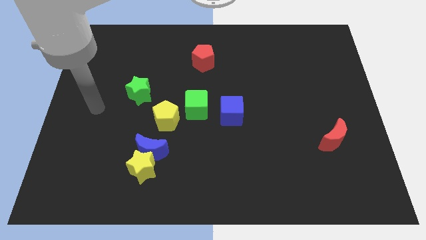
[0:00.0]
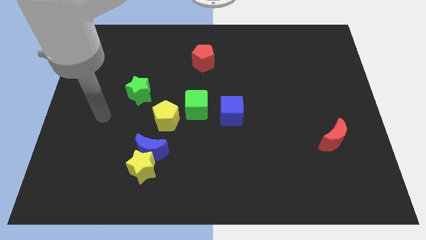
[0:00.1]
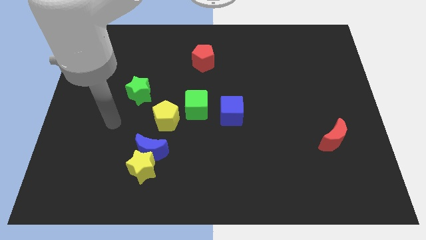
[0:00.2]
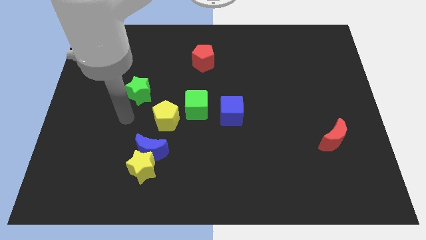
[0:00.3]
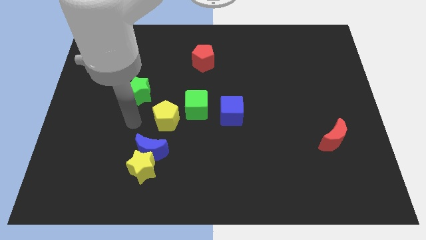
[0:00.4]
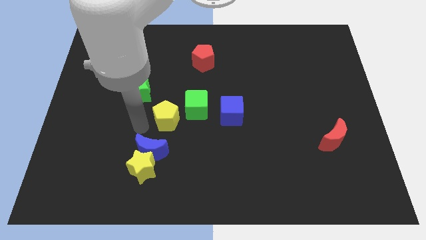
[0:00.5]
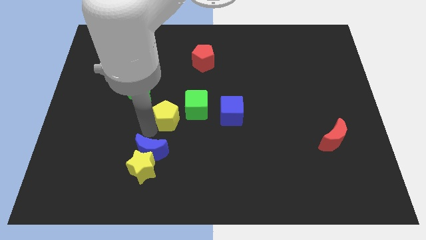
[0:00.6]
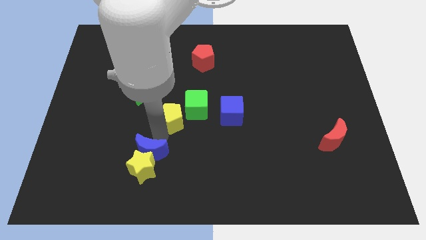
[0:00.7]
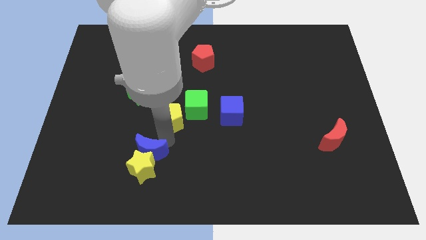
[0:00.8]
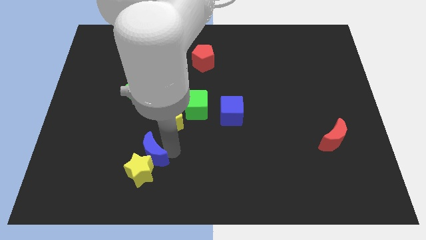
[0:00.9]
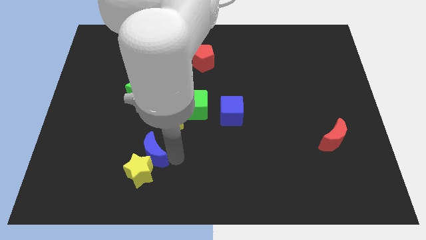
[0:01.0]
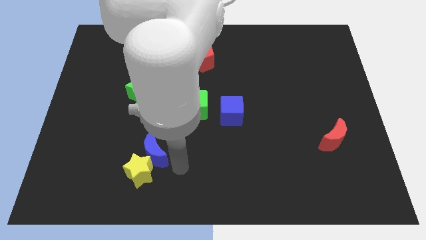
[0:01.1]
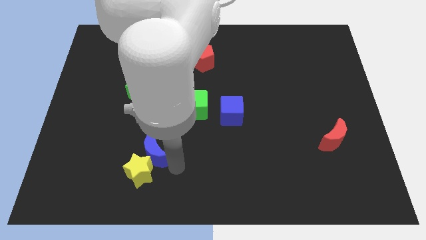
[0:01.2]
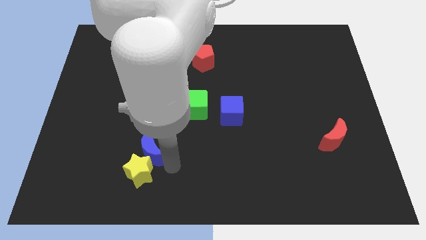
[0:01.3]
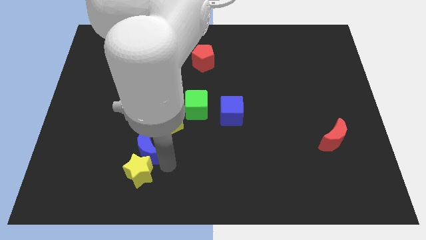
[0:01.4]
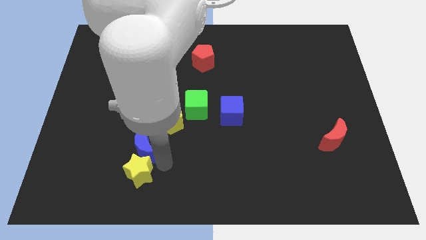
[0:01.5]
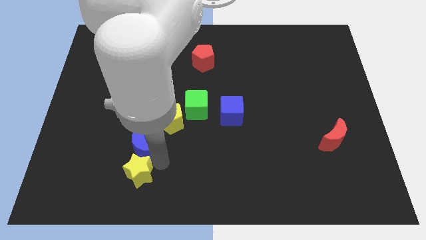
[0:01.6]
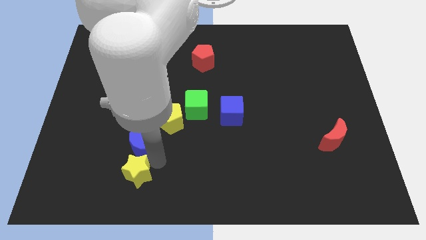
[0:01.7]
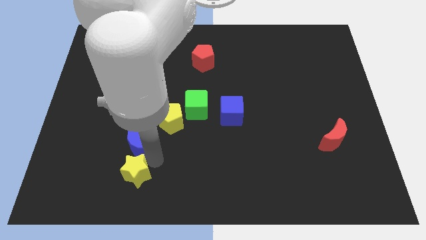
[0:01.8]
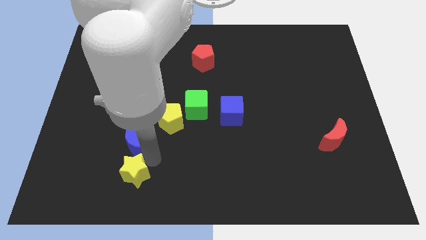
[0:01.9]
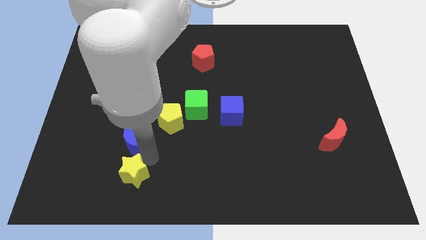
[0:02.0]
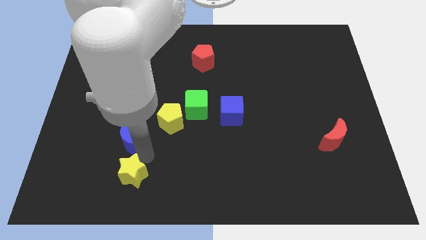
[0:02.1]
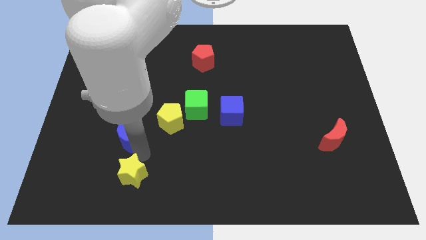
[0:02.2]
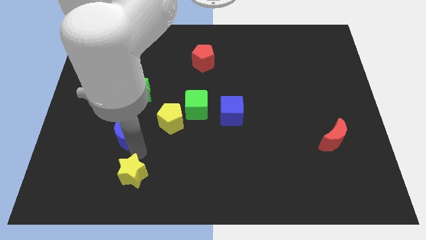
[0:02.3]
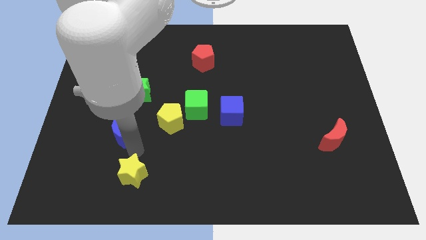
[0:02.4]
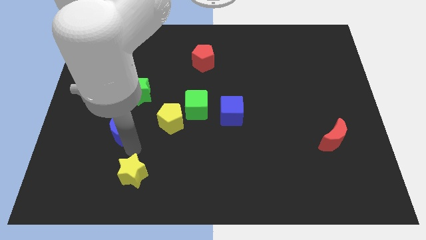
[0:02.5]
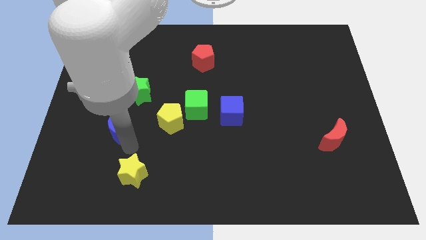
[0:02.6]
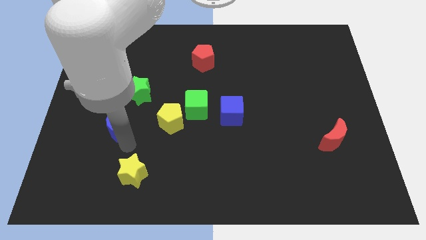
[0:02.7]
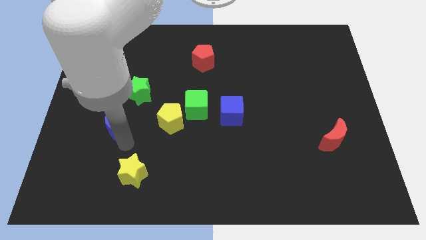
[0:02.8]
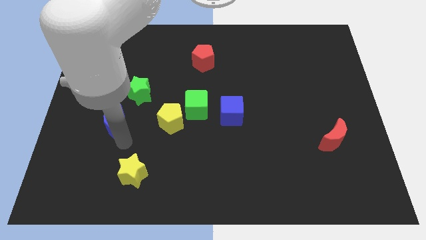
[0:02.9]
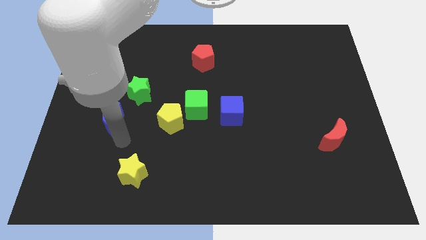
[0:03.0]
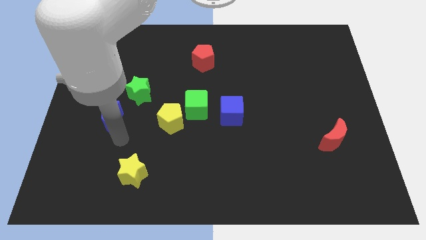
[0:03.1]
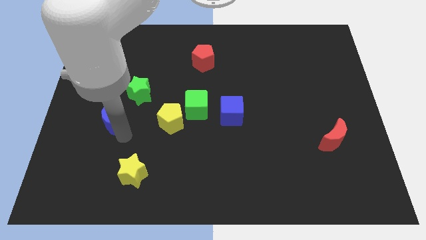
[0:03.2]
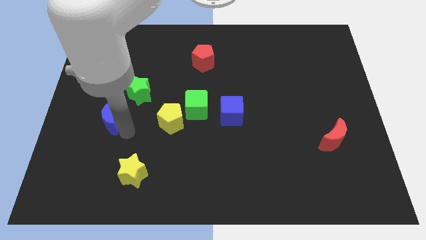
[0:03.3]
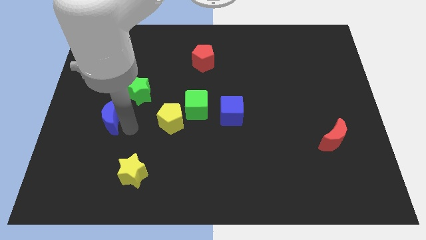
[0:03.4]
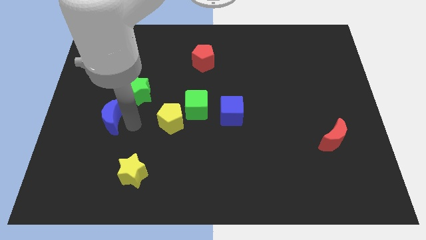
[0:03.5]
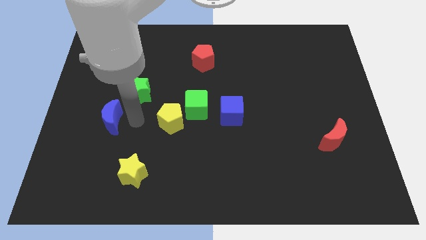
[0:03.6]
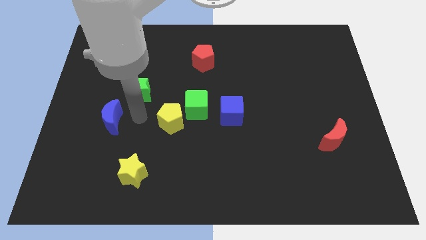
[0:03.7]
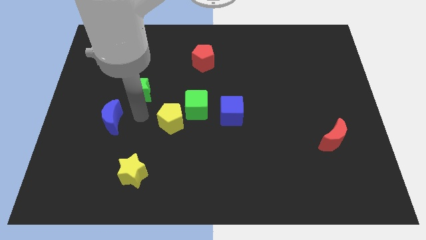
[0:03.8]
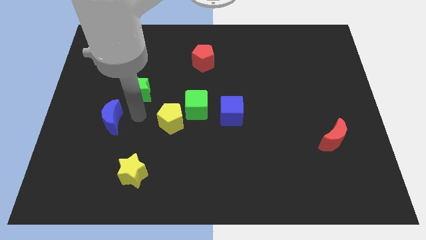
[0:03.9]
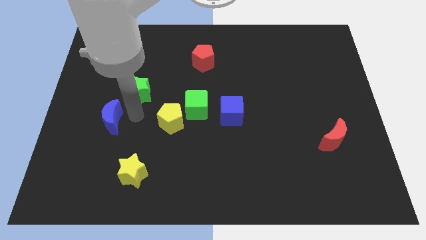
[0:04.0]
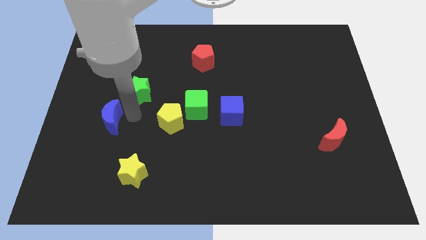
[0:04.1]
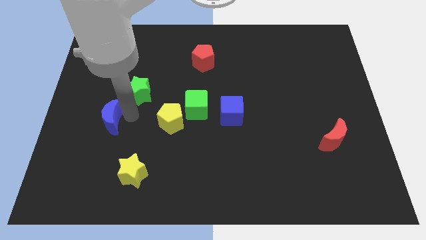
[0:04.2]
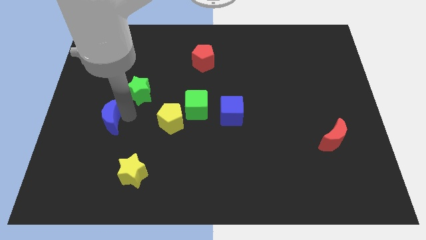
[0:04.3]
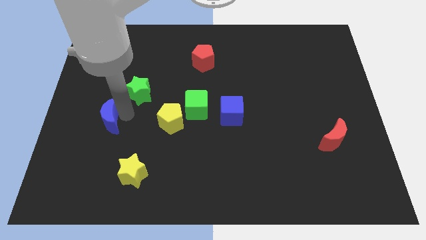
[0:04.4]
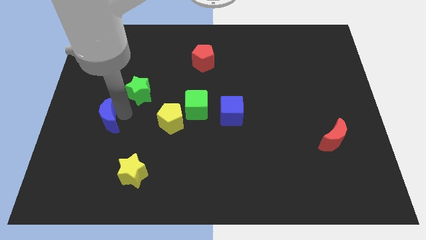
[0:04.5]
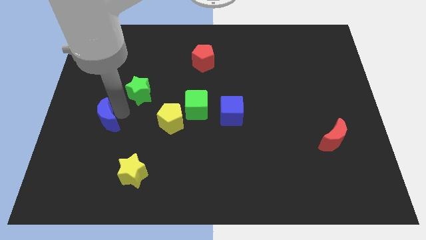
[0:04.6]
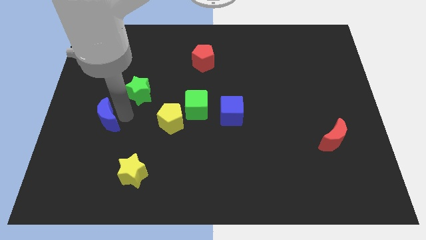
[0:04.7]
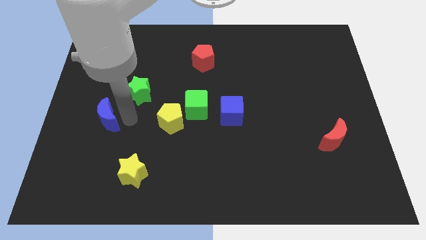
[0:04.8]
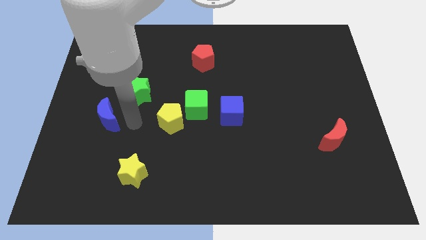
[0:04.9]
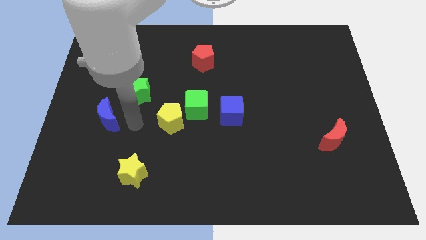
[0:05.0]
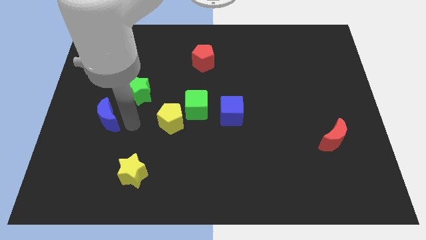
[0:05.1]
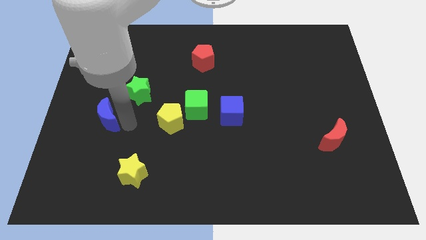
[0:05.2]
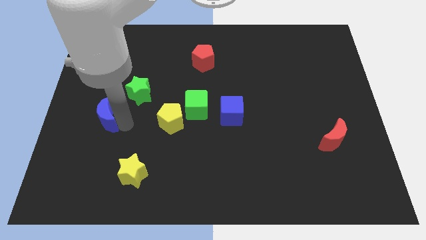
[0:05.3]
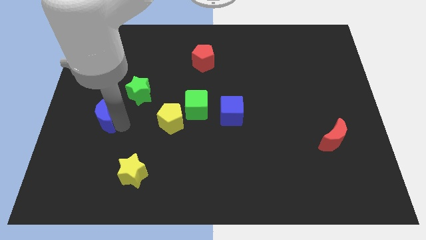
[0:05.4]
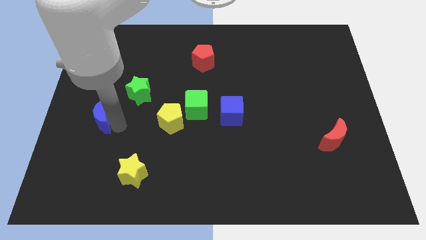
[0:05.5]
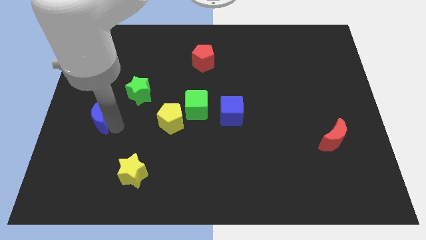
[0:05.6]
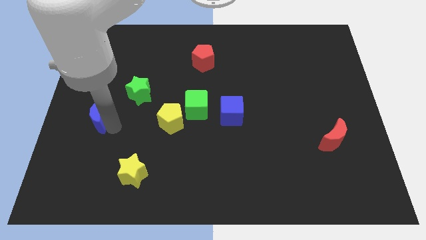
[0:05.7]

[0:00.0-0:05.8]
put the blue moon to the left side

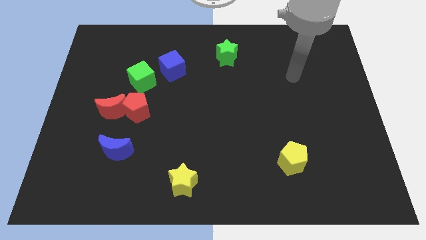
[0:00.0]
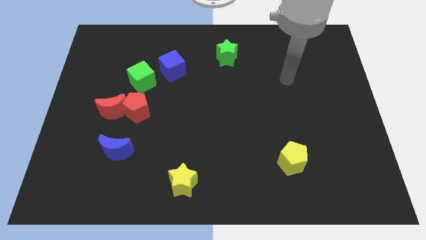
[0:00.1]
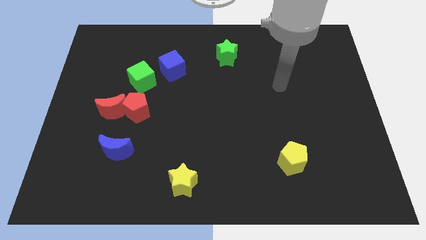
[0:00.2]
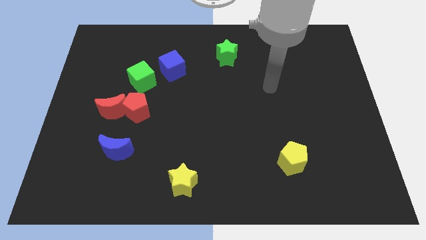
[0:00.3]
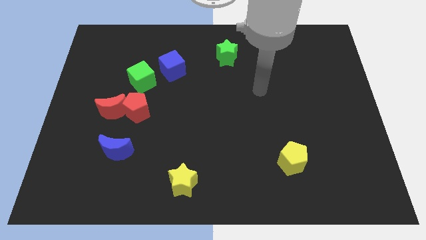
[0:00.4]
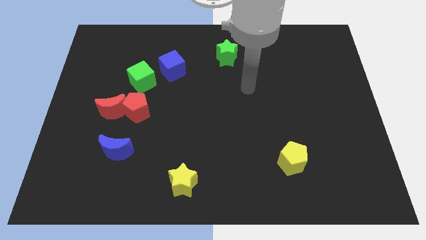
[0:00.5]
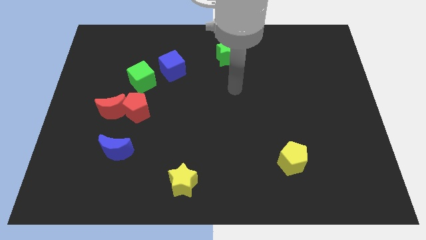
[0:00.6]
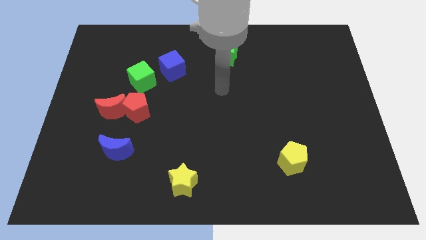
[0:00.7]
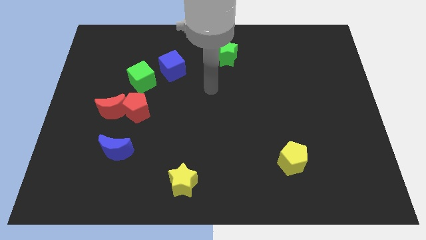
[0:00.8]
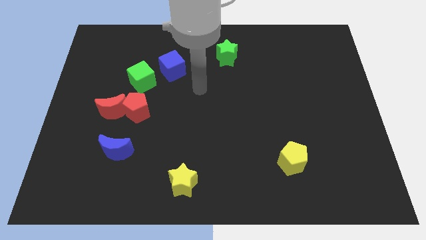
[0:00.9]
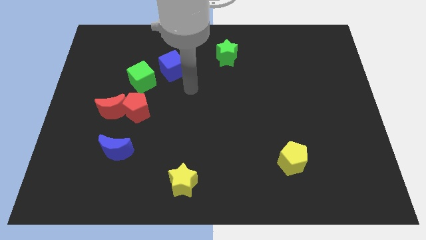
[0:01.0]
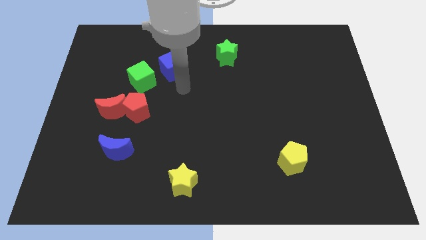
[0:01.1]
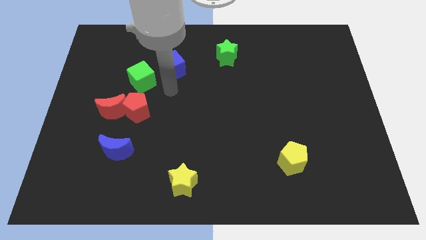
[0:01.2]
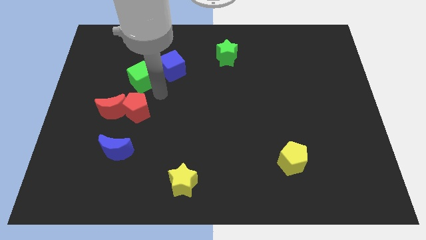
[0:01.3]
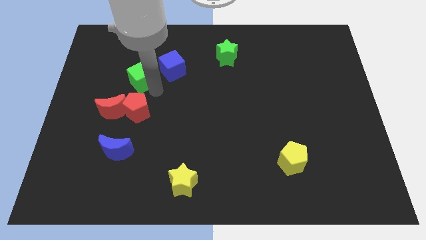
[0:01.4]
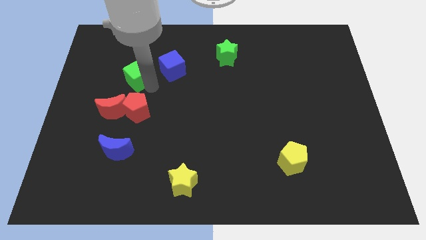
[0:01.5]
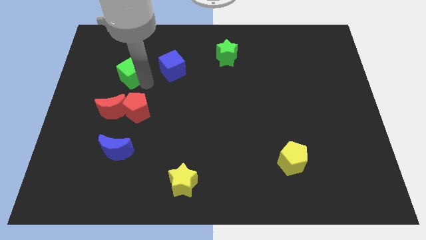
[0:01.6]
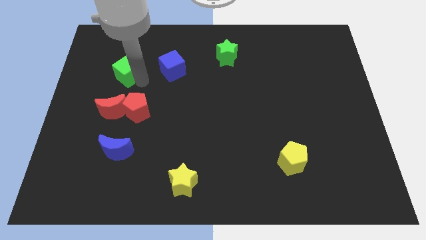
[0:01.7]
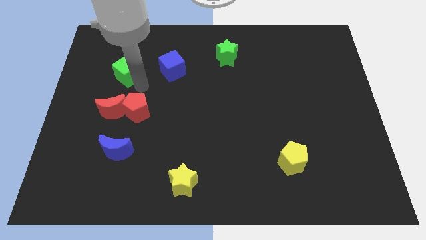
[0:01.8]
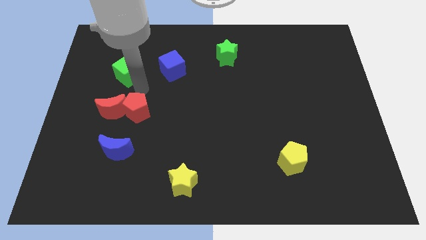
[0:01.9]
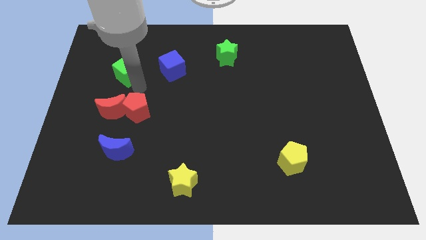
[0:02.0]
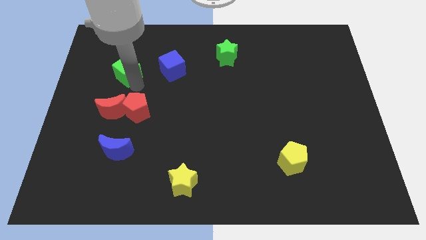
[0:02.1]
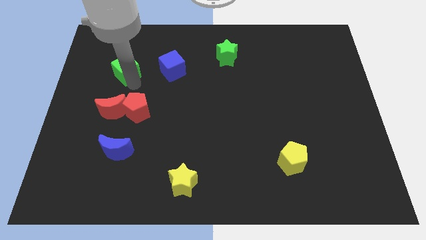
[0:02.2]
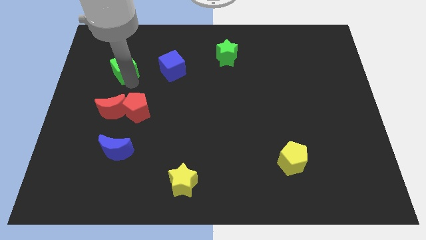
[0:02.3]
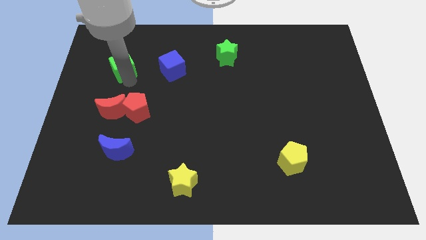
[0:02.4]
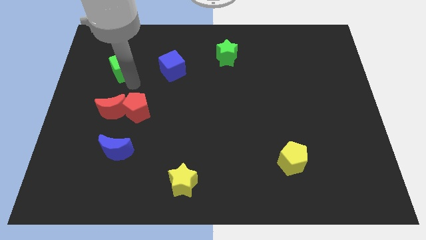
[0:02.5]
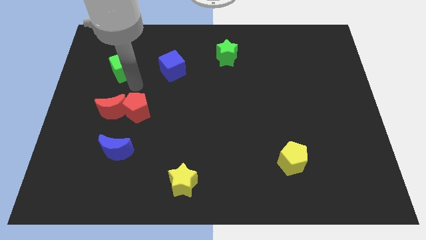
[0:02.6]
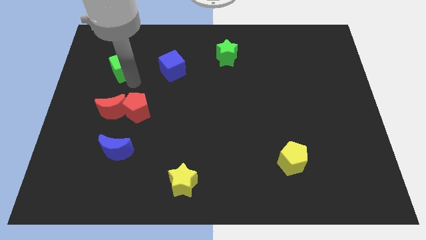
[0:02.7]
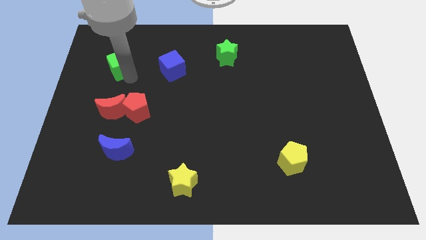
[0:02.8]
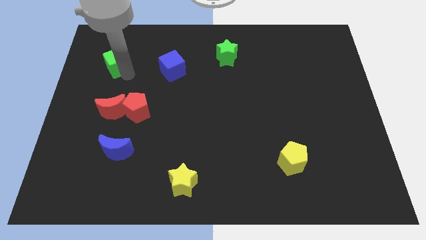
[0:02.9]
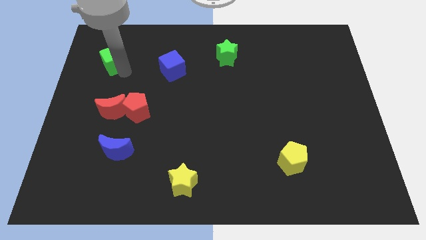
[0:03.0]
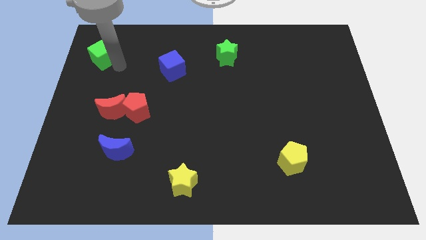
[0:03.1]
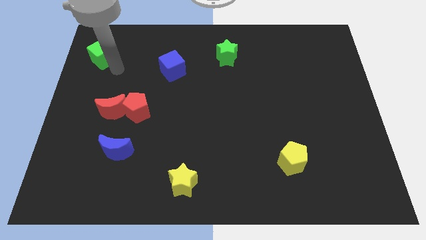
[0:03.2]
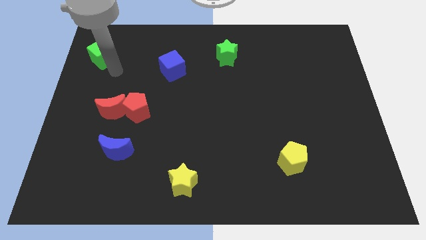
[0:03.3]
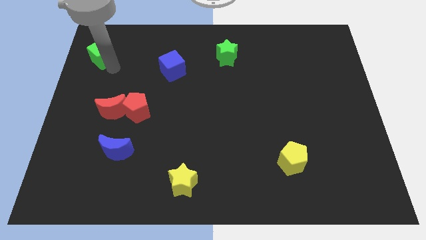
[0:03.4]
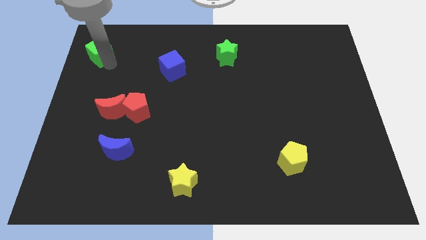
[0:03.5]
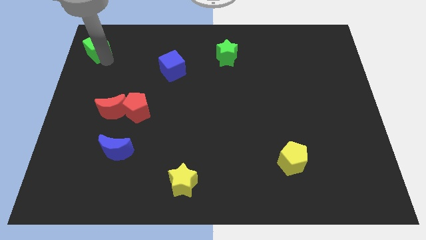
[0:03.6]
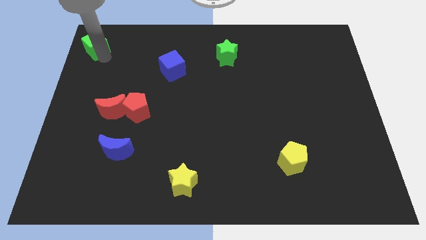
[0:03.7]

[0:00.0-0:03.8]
put the green cube to the top left of the board
